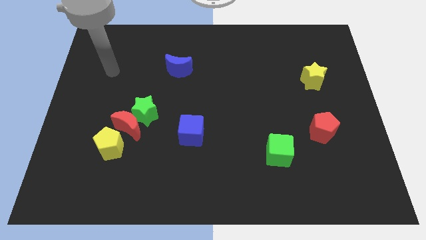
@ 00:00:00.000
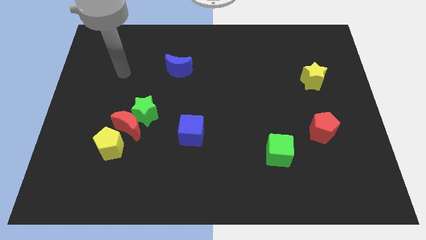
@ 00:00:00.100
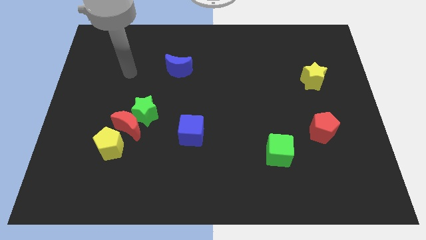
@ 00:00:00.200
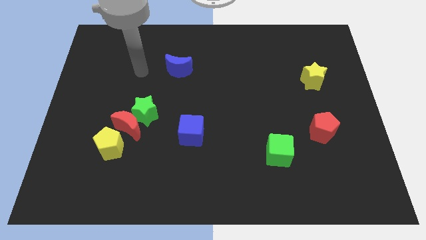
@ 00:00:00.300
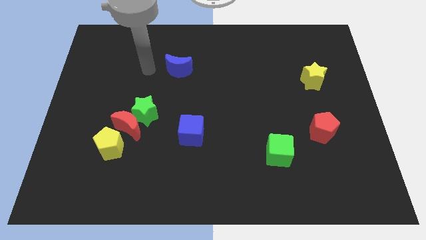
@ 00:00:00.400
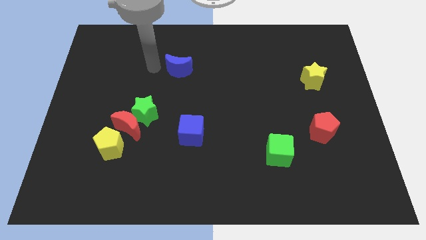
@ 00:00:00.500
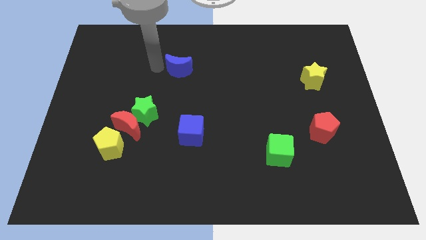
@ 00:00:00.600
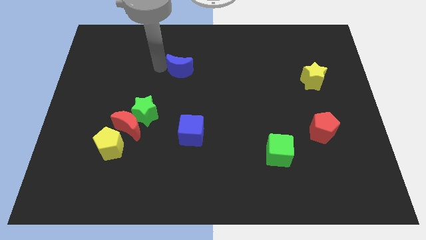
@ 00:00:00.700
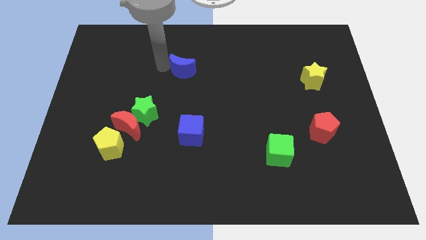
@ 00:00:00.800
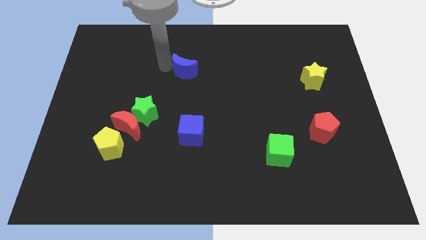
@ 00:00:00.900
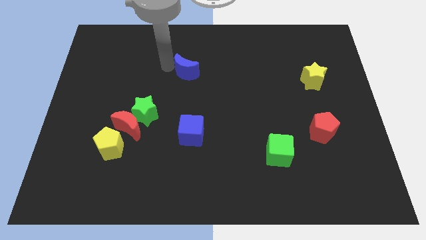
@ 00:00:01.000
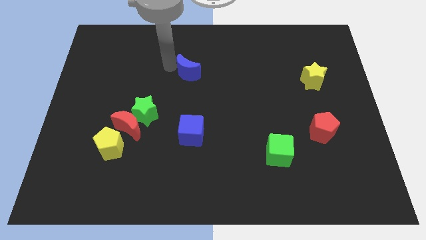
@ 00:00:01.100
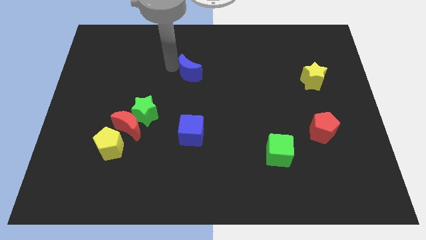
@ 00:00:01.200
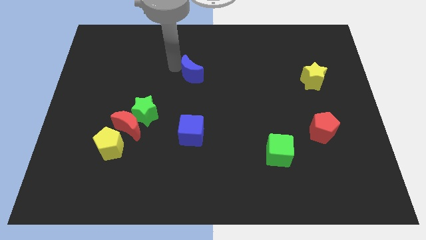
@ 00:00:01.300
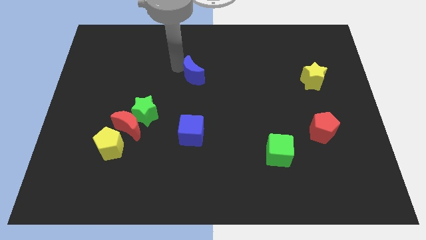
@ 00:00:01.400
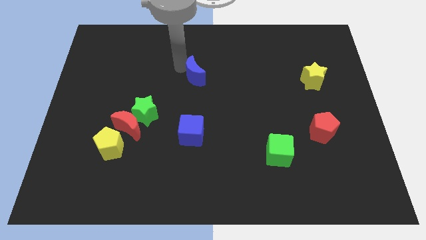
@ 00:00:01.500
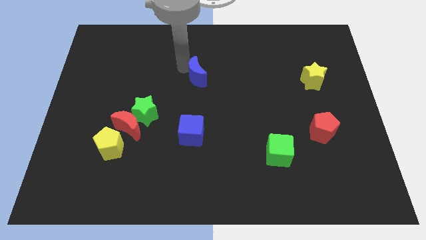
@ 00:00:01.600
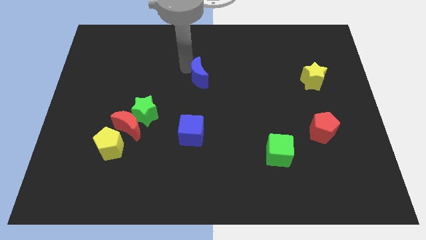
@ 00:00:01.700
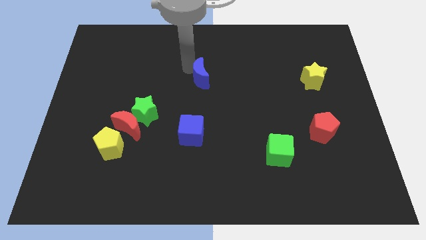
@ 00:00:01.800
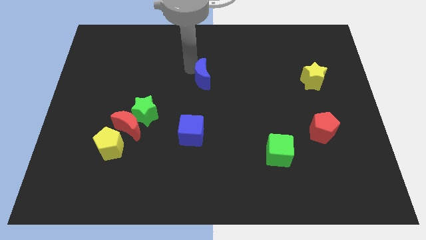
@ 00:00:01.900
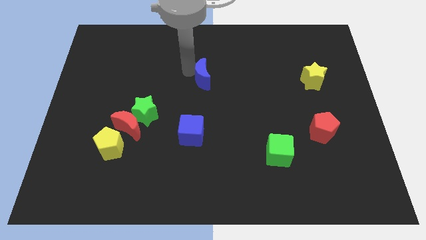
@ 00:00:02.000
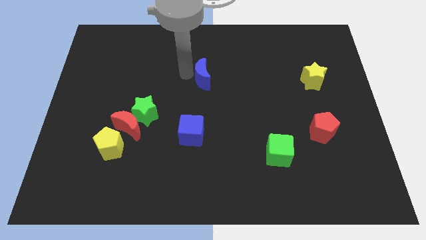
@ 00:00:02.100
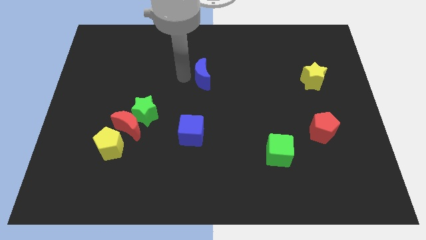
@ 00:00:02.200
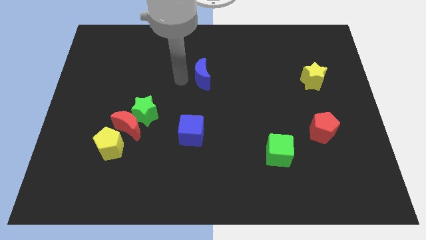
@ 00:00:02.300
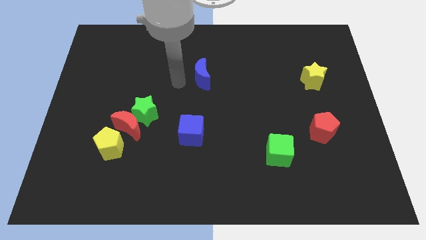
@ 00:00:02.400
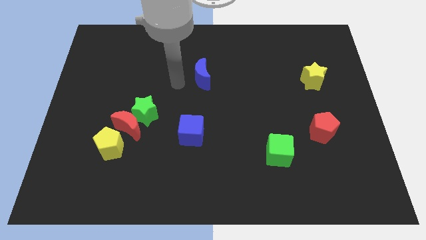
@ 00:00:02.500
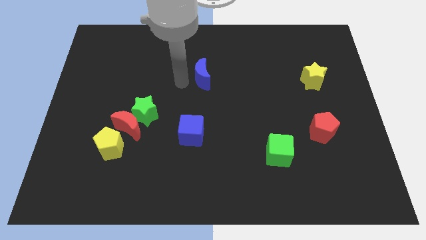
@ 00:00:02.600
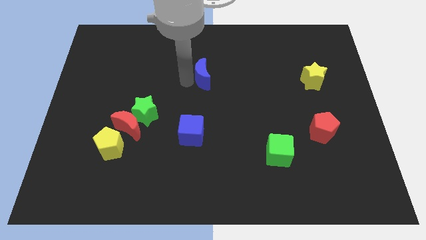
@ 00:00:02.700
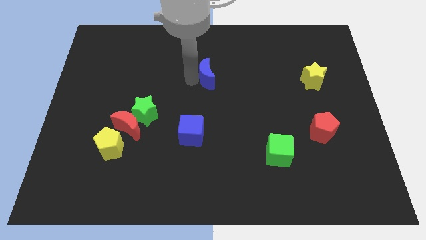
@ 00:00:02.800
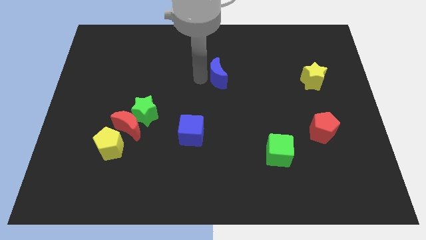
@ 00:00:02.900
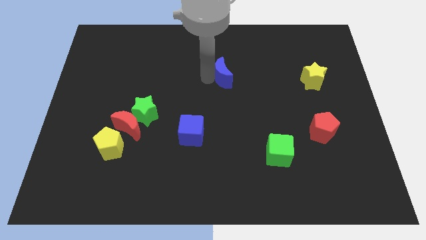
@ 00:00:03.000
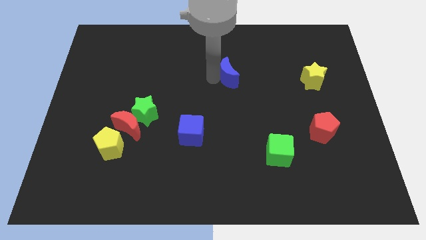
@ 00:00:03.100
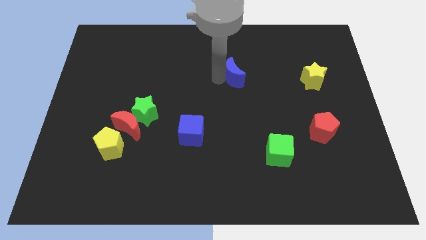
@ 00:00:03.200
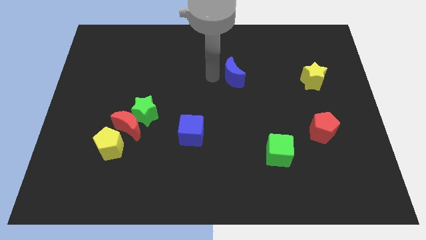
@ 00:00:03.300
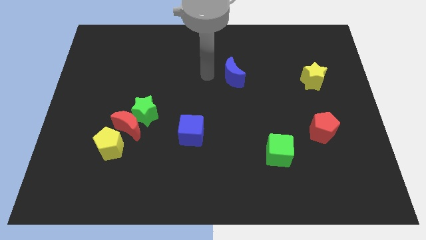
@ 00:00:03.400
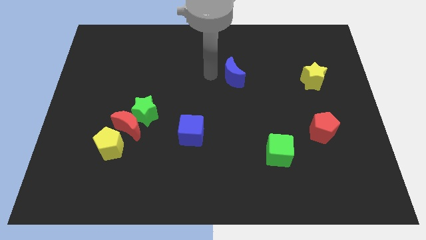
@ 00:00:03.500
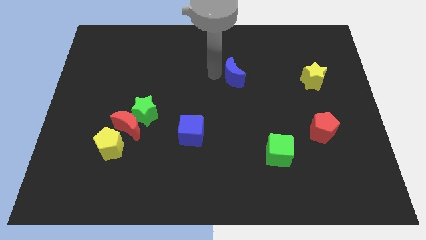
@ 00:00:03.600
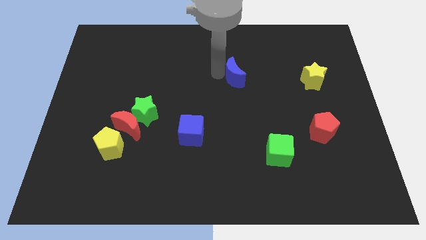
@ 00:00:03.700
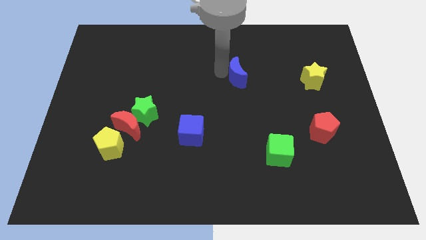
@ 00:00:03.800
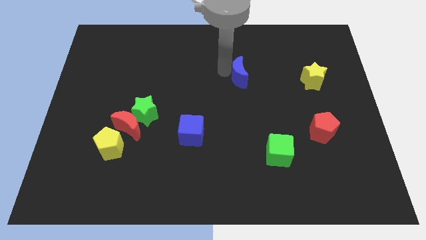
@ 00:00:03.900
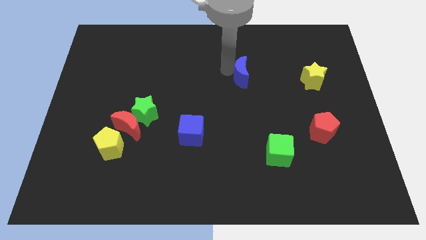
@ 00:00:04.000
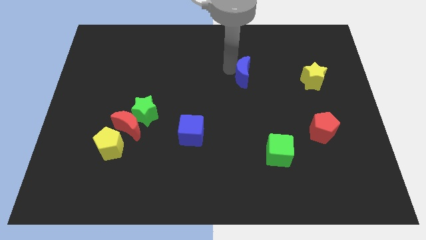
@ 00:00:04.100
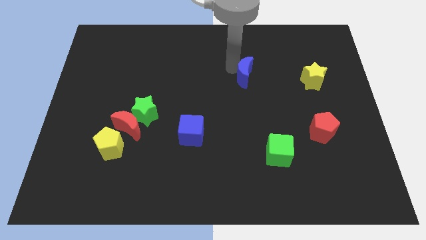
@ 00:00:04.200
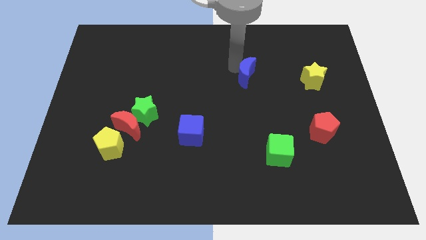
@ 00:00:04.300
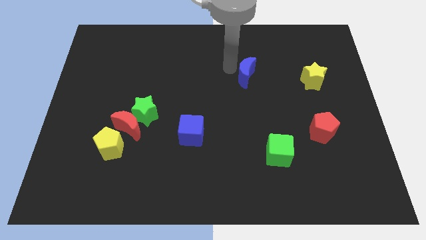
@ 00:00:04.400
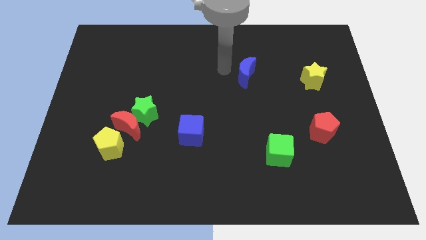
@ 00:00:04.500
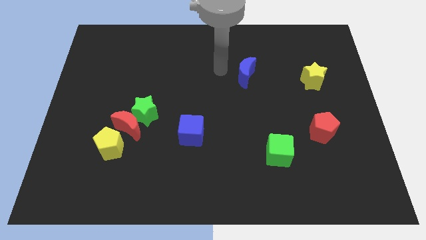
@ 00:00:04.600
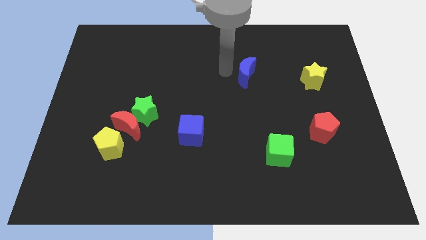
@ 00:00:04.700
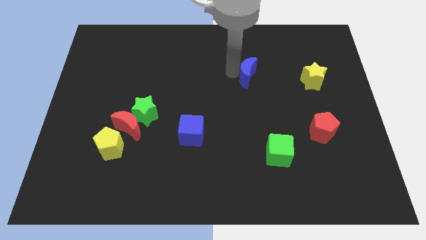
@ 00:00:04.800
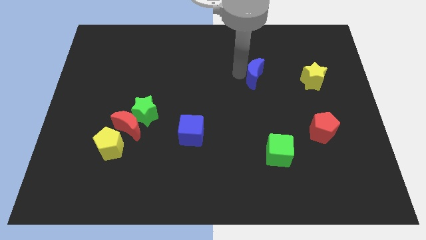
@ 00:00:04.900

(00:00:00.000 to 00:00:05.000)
move the blue moon to the left side of the yellow star

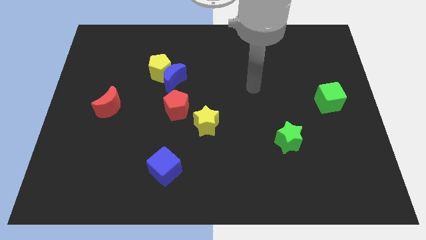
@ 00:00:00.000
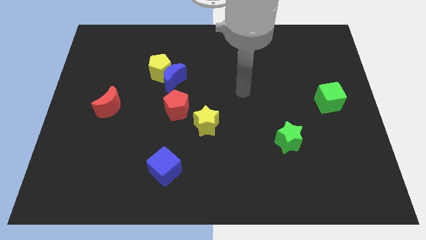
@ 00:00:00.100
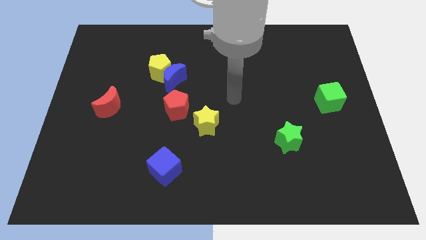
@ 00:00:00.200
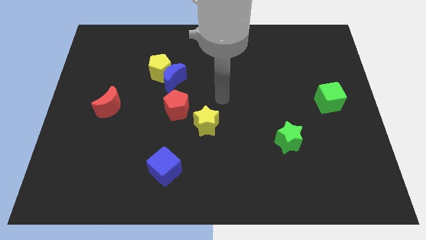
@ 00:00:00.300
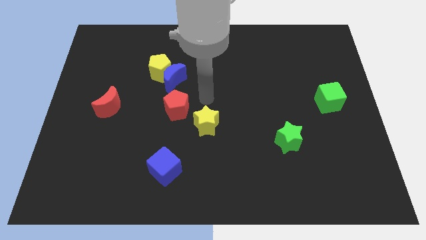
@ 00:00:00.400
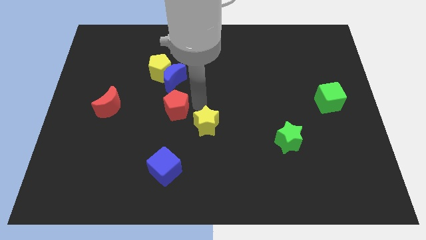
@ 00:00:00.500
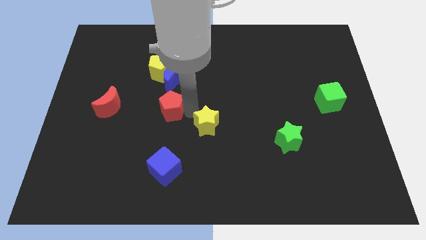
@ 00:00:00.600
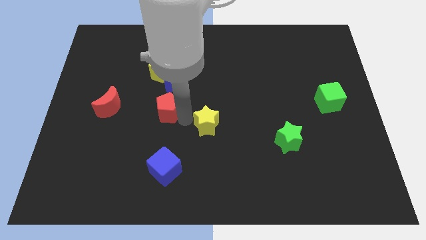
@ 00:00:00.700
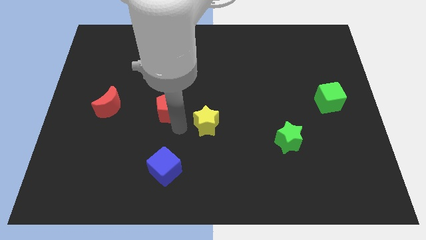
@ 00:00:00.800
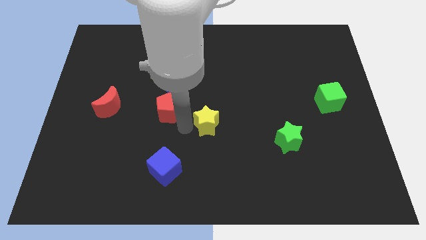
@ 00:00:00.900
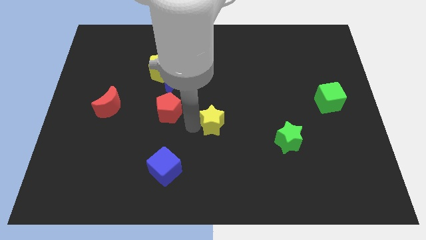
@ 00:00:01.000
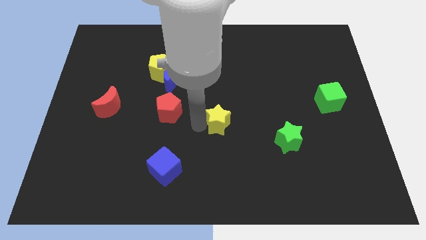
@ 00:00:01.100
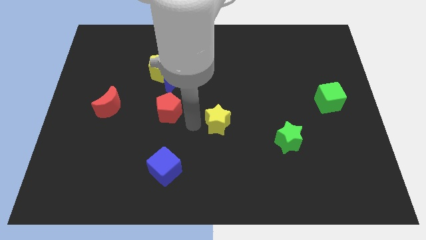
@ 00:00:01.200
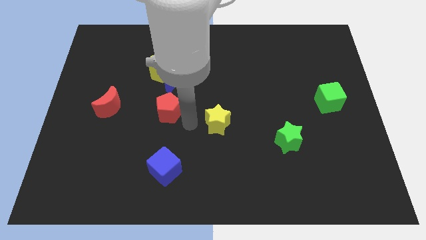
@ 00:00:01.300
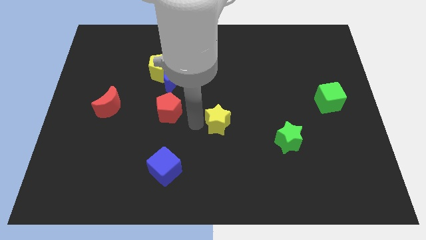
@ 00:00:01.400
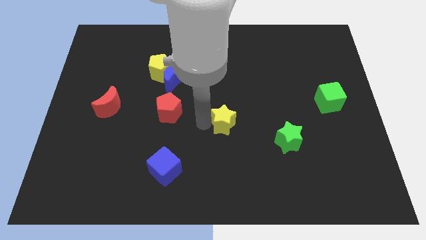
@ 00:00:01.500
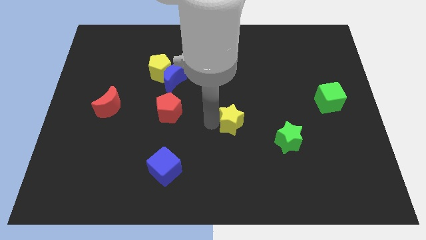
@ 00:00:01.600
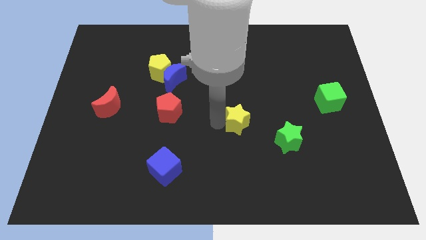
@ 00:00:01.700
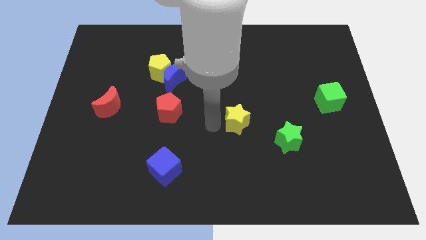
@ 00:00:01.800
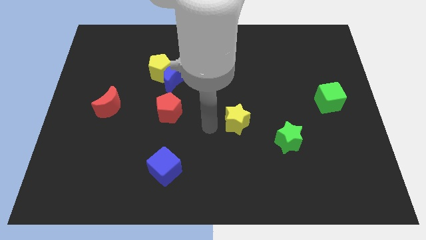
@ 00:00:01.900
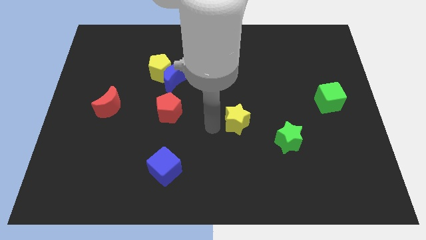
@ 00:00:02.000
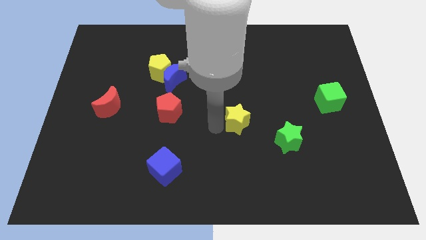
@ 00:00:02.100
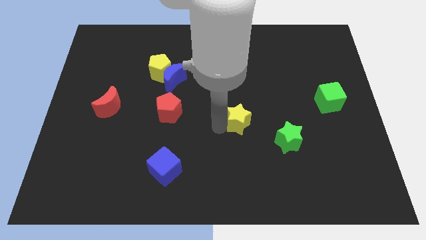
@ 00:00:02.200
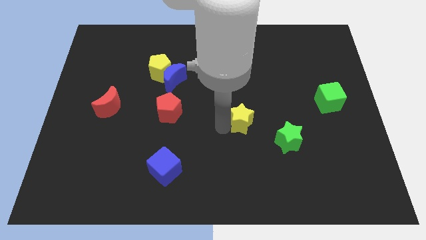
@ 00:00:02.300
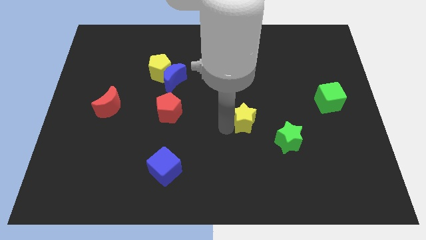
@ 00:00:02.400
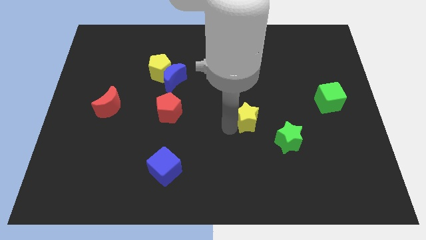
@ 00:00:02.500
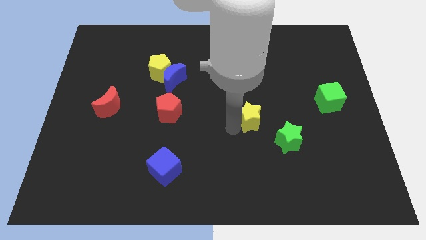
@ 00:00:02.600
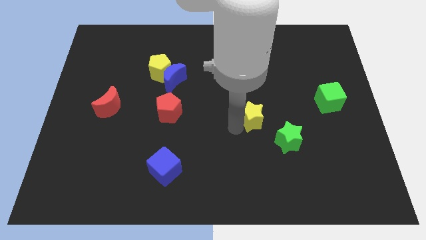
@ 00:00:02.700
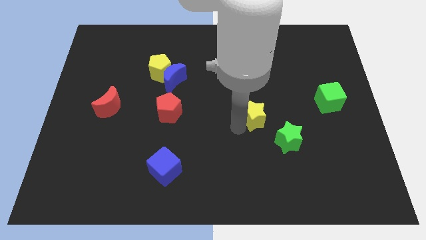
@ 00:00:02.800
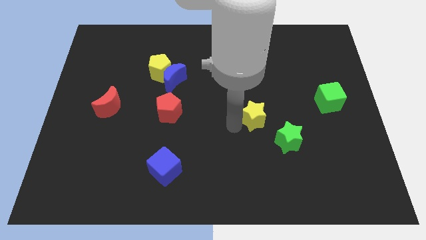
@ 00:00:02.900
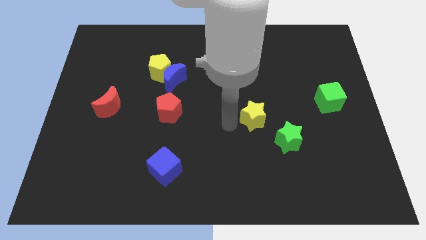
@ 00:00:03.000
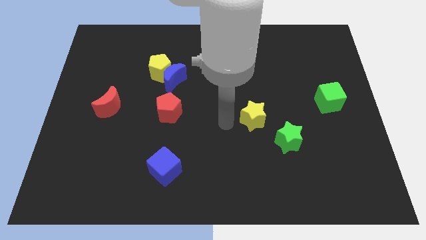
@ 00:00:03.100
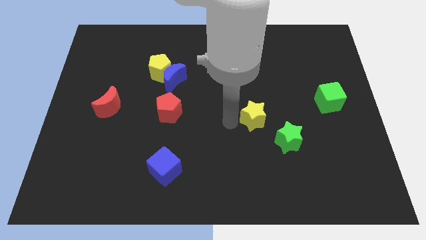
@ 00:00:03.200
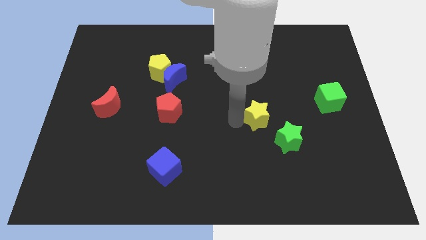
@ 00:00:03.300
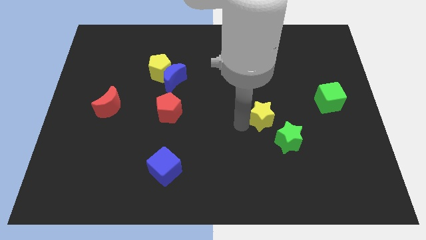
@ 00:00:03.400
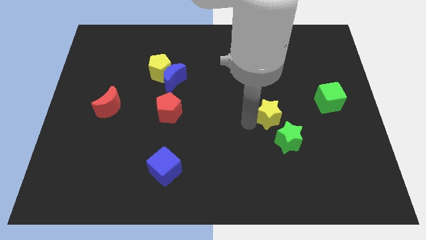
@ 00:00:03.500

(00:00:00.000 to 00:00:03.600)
slide the yellow star to the top side of the green star
